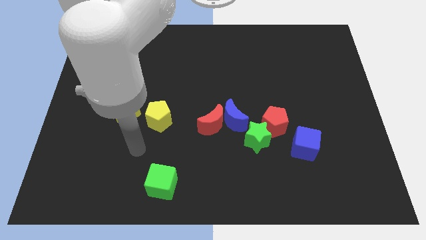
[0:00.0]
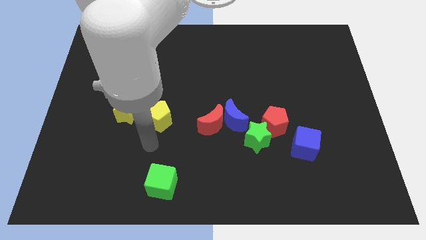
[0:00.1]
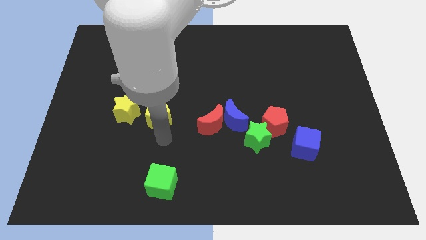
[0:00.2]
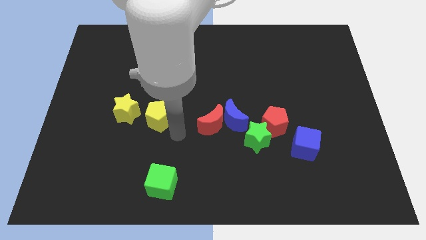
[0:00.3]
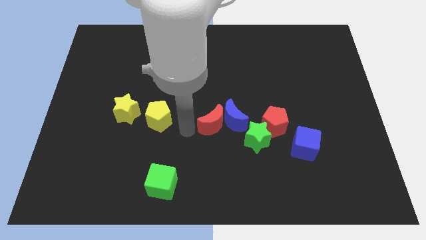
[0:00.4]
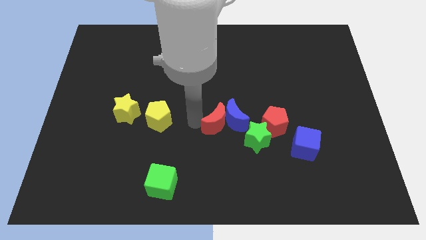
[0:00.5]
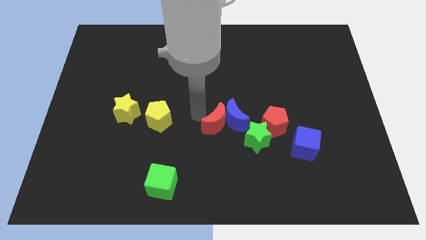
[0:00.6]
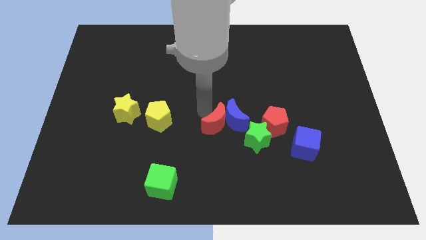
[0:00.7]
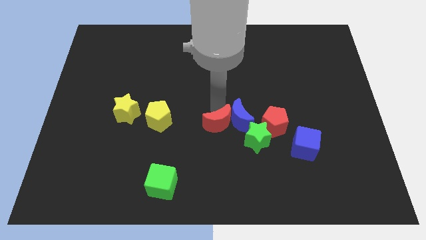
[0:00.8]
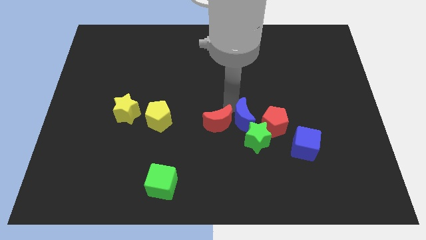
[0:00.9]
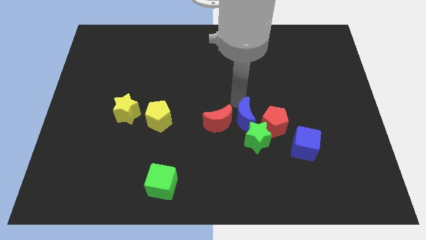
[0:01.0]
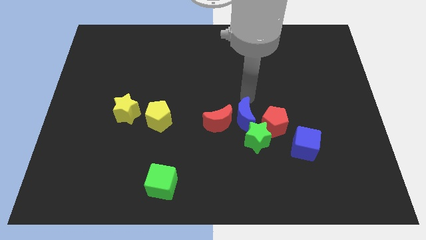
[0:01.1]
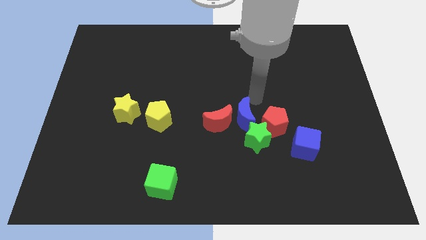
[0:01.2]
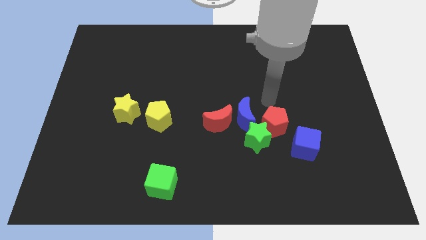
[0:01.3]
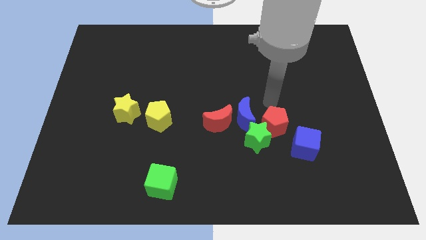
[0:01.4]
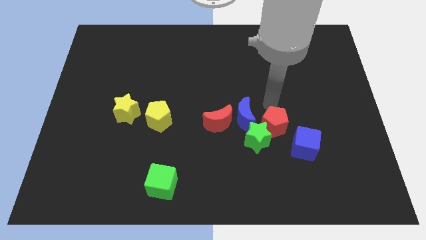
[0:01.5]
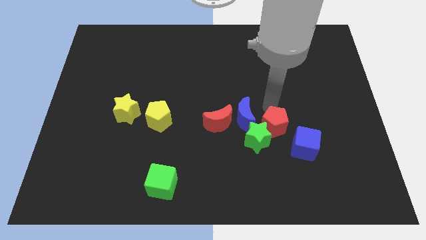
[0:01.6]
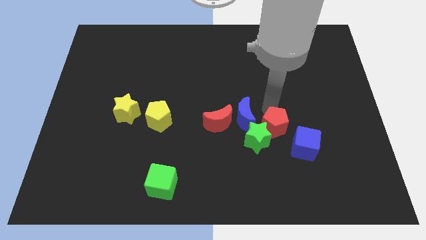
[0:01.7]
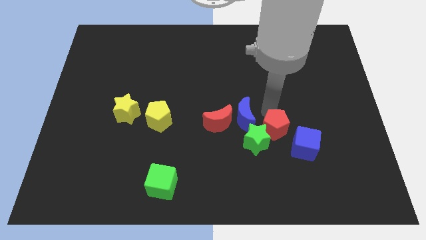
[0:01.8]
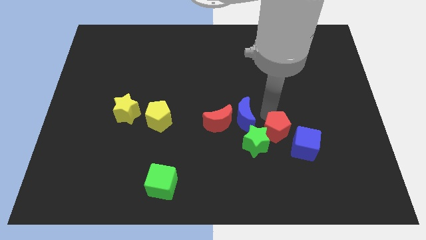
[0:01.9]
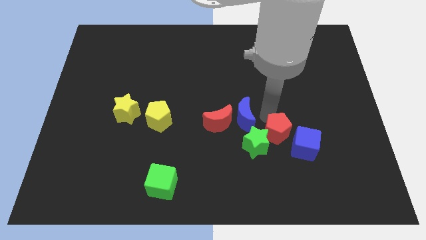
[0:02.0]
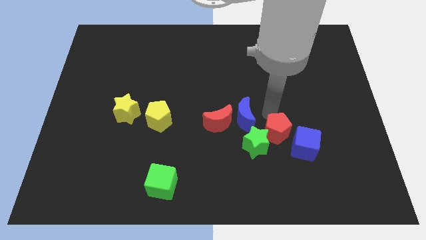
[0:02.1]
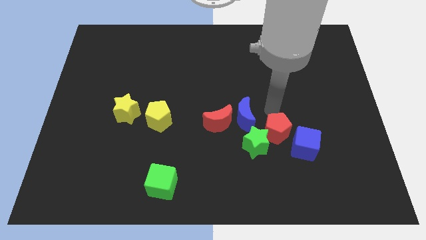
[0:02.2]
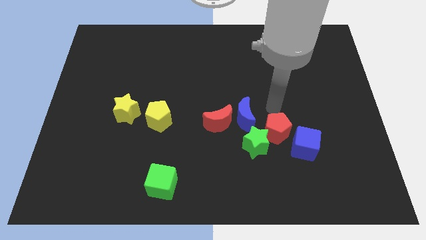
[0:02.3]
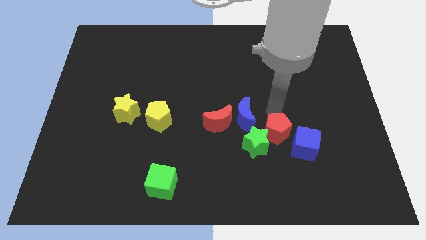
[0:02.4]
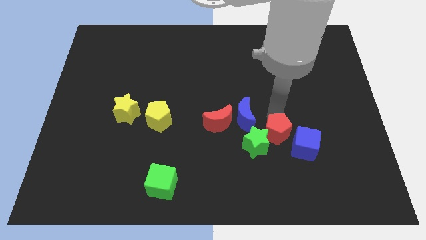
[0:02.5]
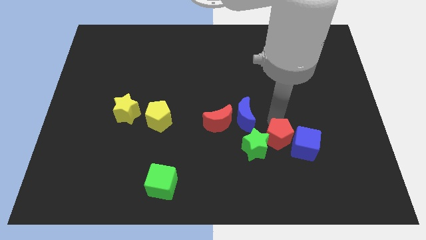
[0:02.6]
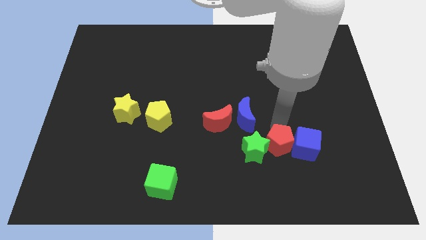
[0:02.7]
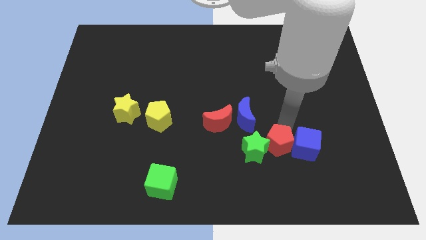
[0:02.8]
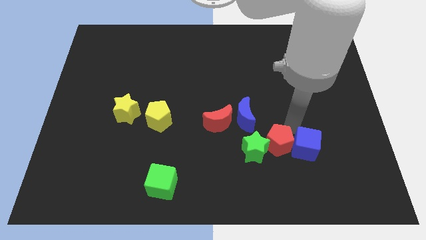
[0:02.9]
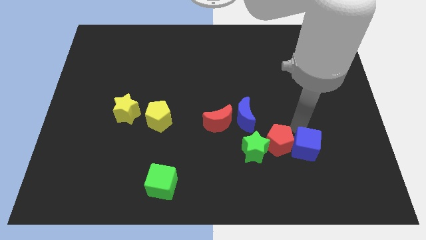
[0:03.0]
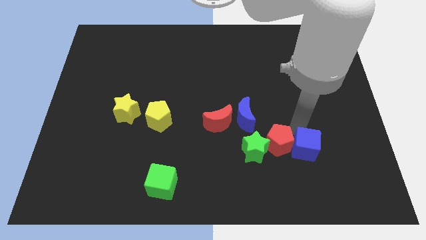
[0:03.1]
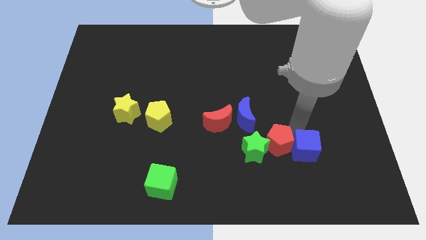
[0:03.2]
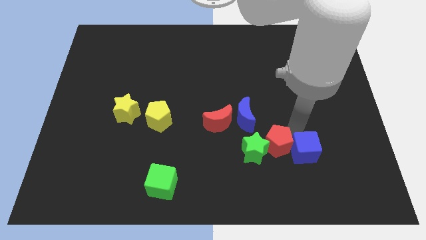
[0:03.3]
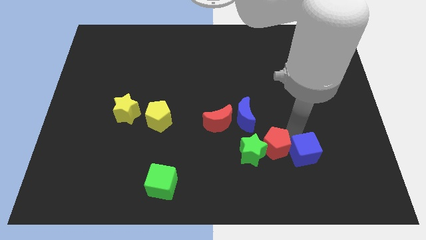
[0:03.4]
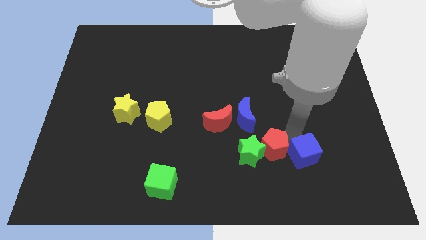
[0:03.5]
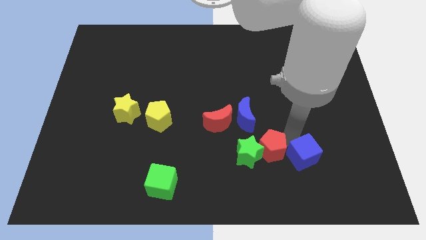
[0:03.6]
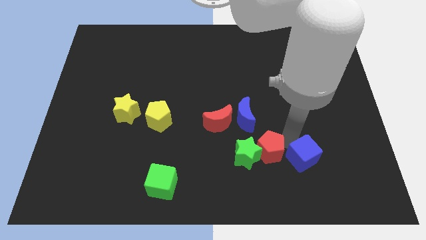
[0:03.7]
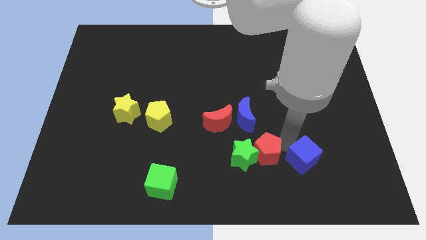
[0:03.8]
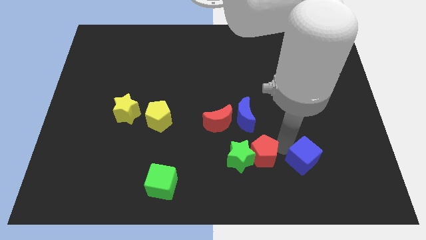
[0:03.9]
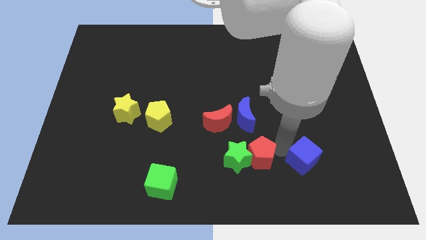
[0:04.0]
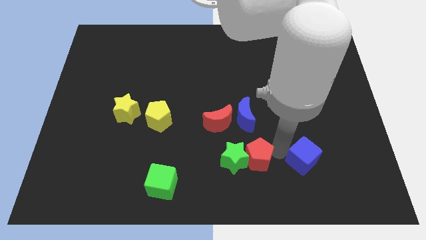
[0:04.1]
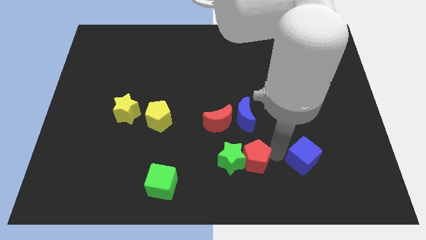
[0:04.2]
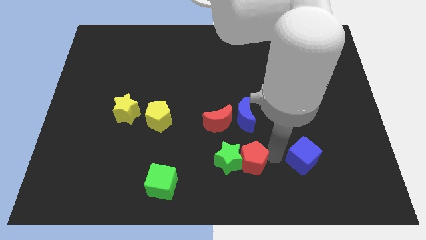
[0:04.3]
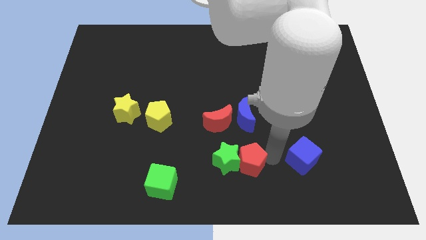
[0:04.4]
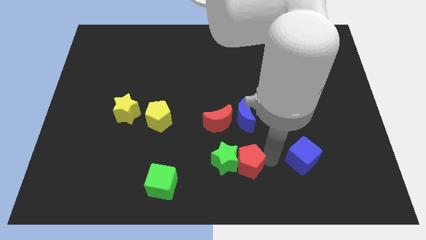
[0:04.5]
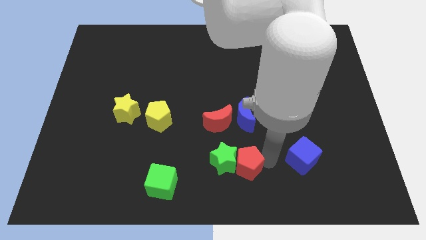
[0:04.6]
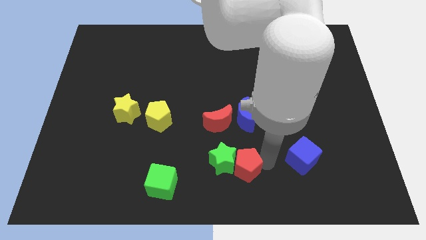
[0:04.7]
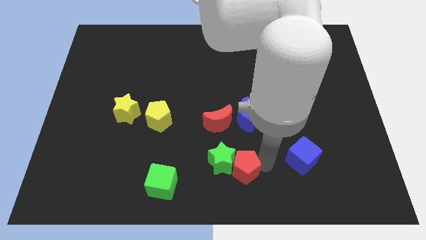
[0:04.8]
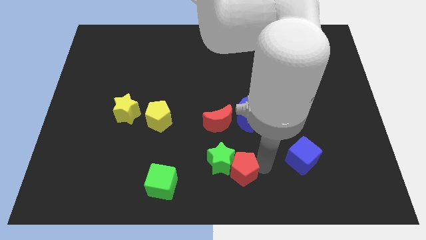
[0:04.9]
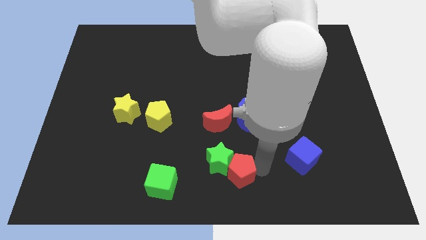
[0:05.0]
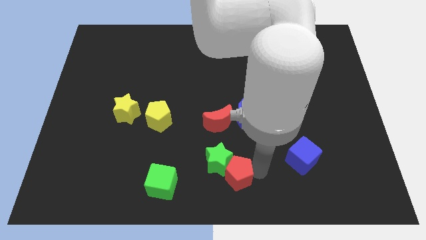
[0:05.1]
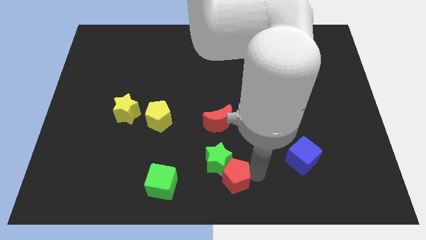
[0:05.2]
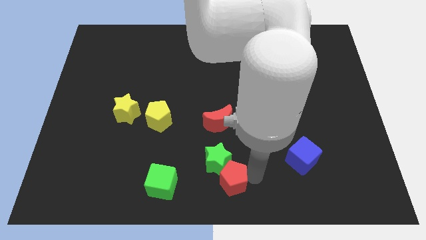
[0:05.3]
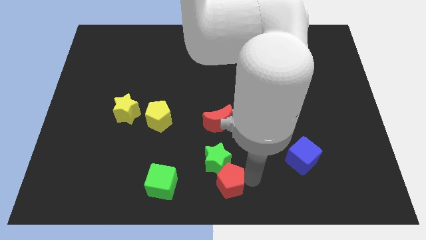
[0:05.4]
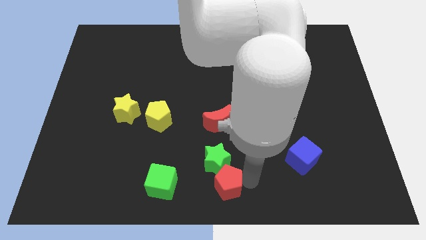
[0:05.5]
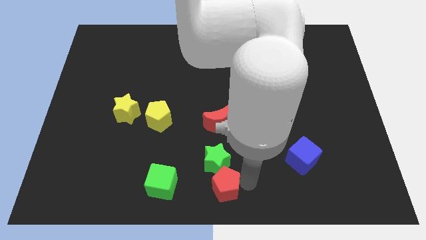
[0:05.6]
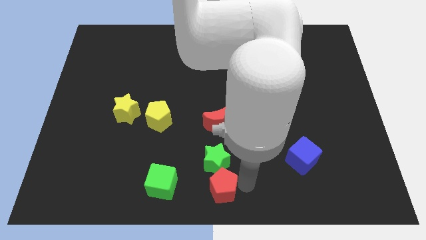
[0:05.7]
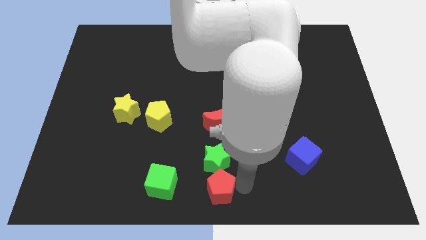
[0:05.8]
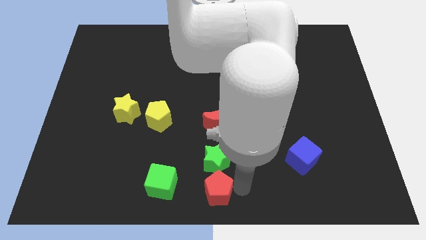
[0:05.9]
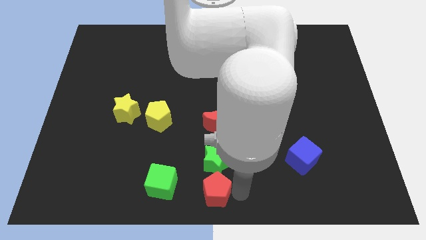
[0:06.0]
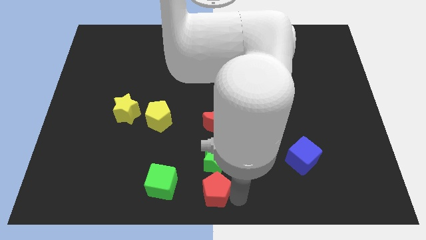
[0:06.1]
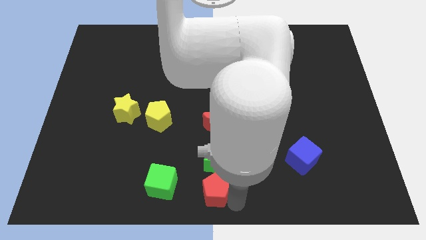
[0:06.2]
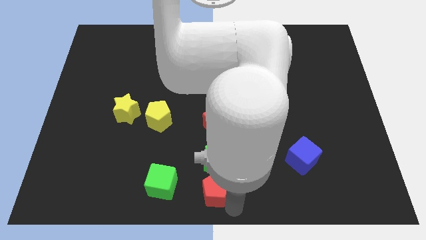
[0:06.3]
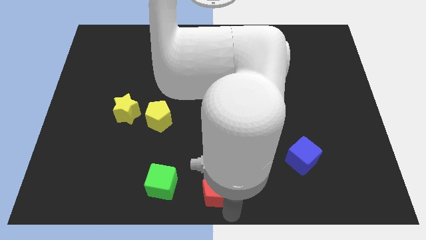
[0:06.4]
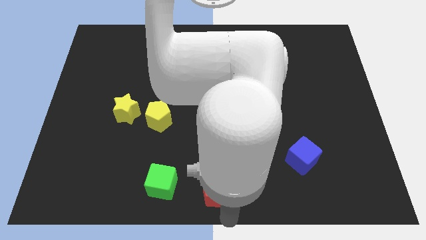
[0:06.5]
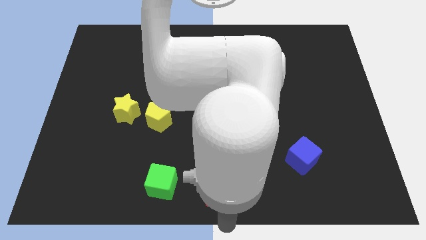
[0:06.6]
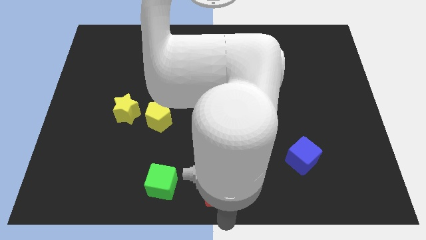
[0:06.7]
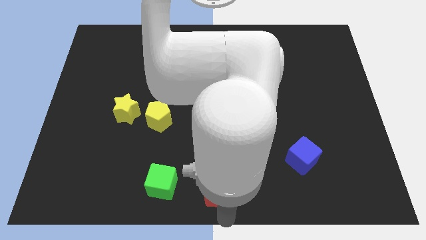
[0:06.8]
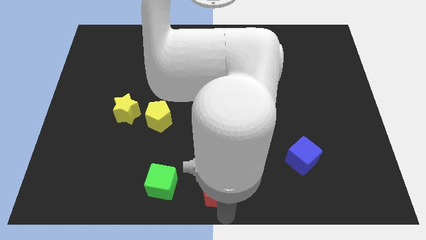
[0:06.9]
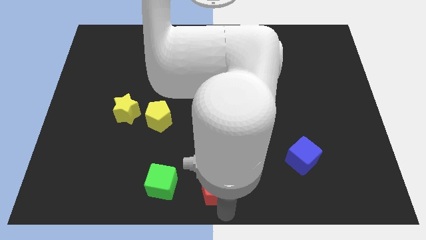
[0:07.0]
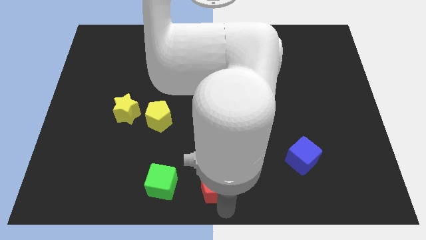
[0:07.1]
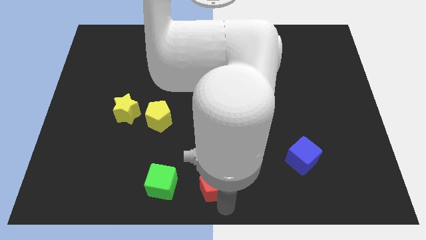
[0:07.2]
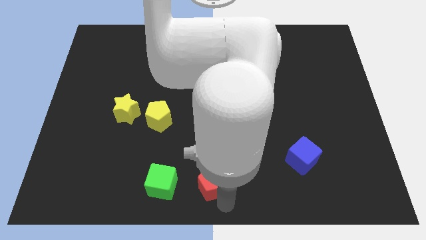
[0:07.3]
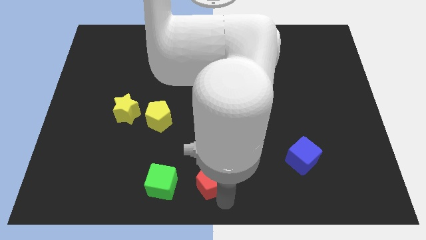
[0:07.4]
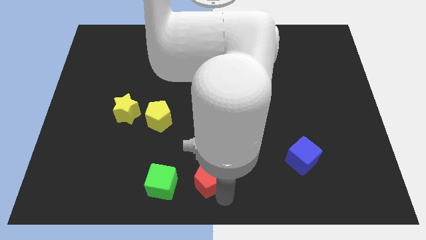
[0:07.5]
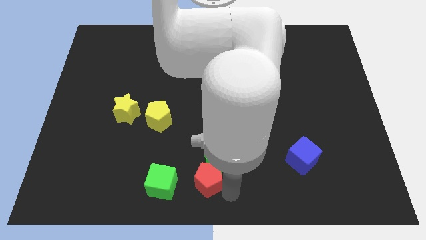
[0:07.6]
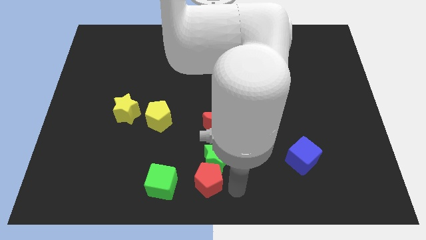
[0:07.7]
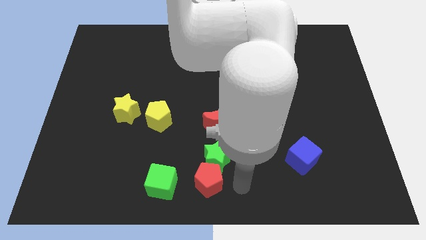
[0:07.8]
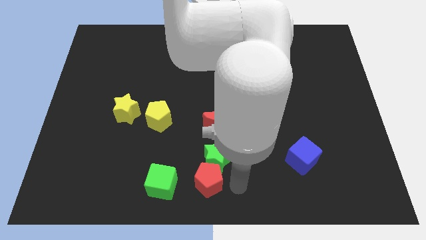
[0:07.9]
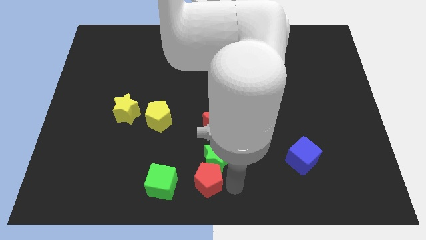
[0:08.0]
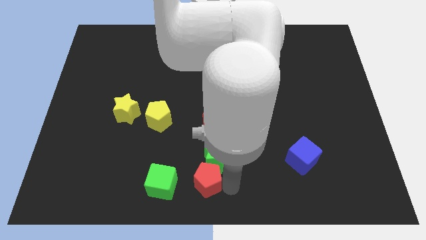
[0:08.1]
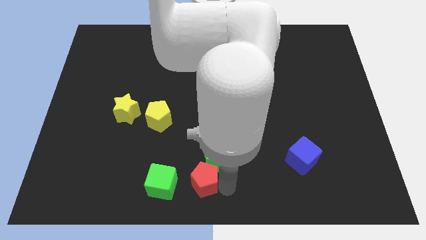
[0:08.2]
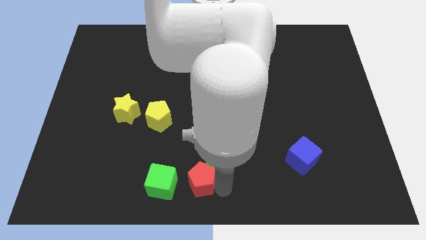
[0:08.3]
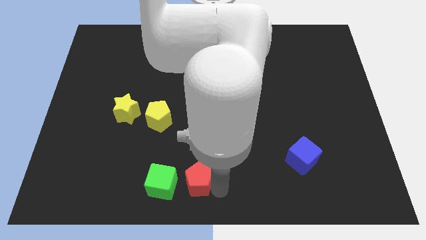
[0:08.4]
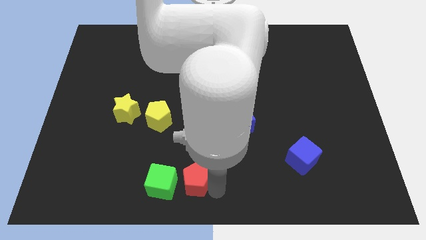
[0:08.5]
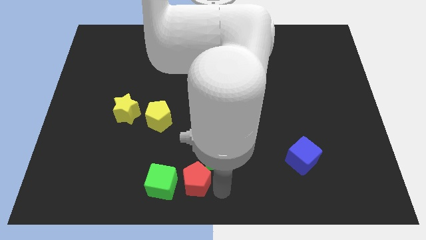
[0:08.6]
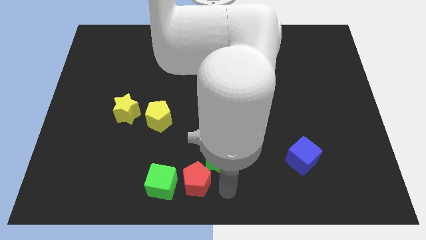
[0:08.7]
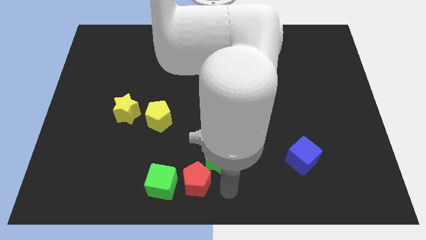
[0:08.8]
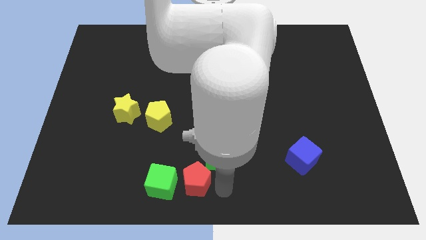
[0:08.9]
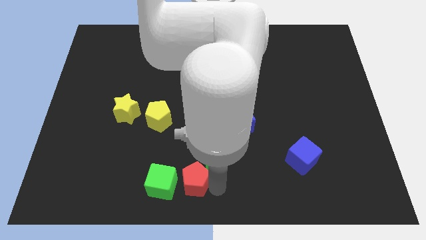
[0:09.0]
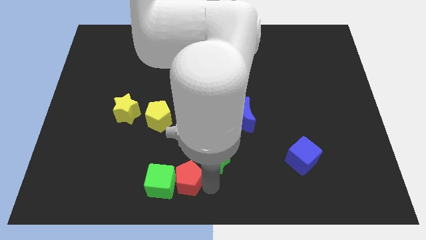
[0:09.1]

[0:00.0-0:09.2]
slide the red pentagon close to the green cube
